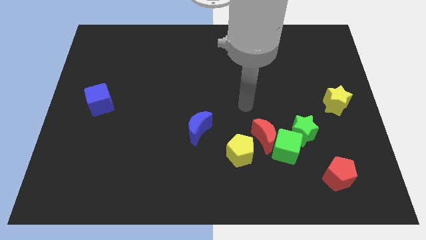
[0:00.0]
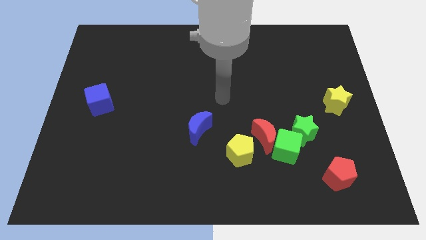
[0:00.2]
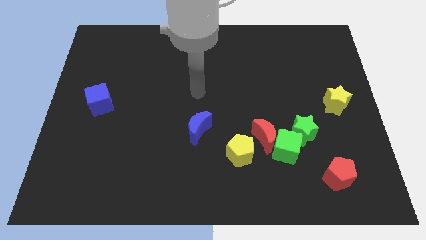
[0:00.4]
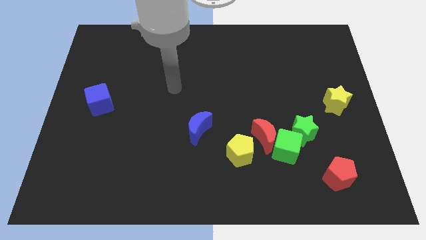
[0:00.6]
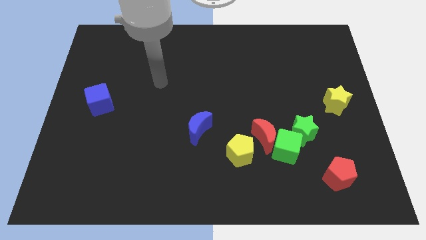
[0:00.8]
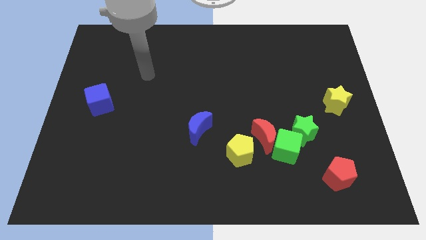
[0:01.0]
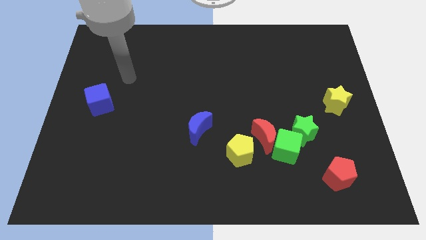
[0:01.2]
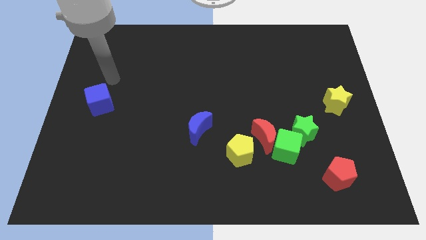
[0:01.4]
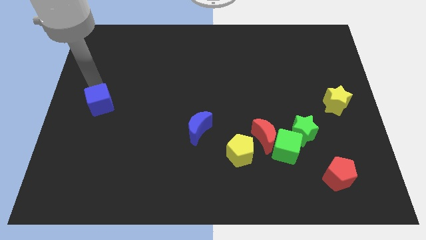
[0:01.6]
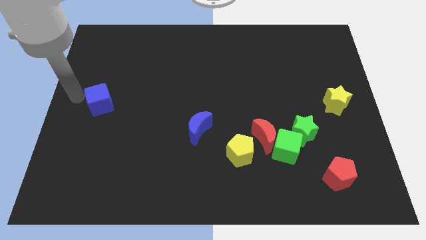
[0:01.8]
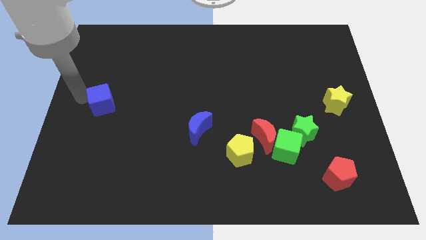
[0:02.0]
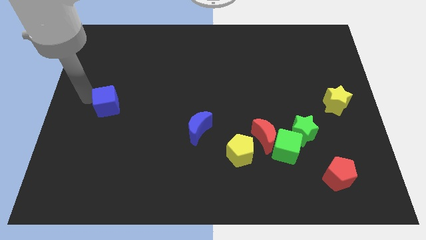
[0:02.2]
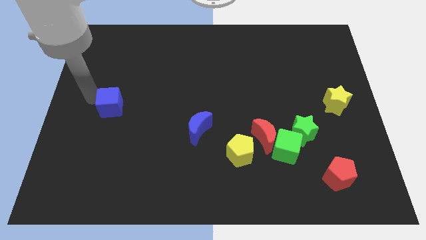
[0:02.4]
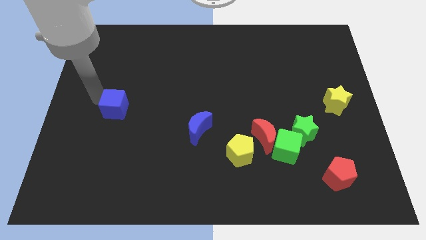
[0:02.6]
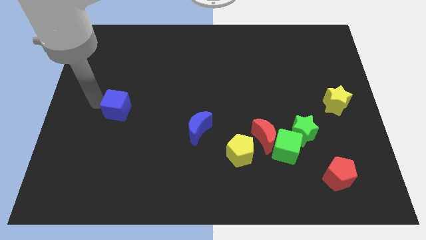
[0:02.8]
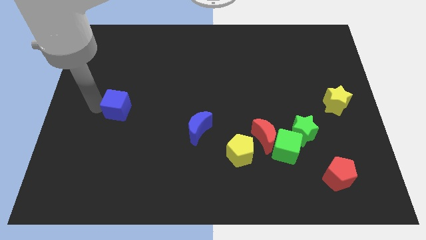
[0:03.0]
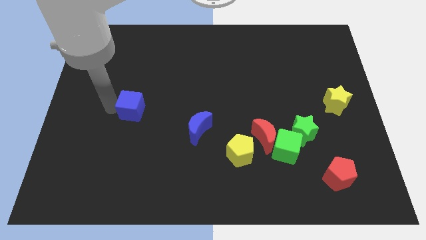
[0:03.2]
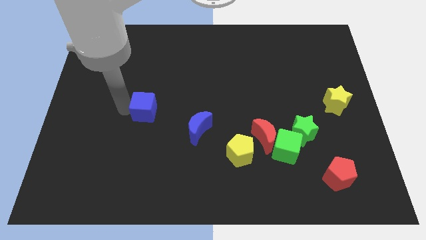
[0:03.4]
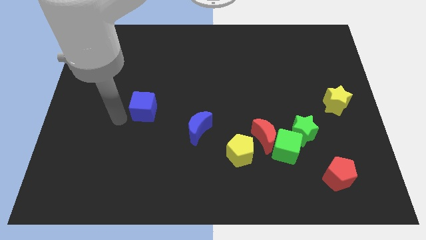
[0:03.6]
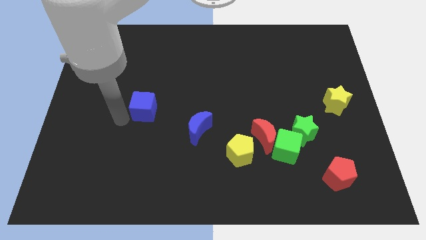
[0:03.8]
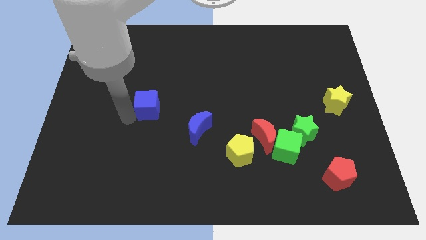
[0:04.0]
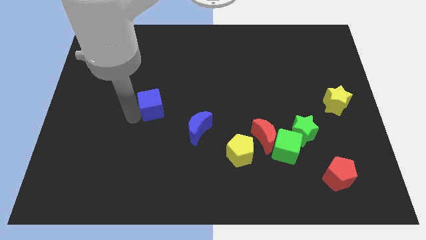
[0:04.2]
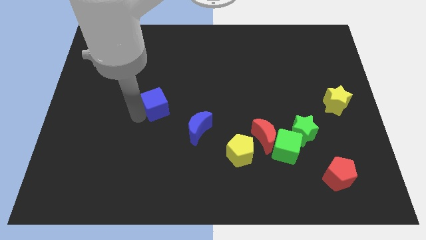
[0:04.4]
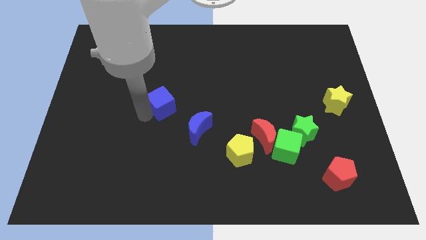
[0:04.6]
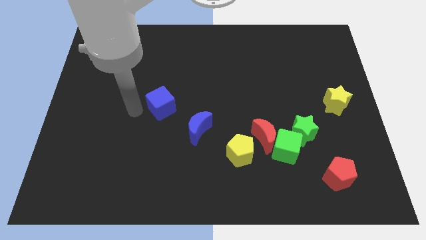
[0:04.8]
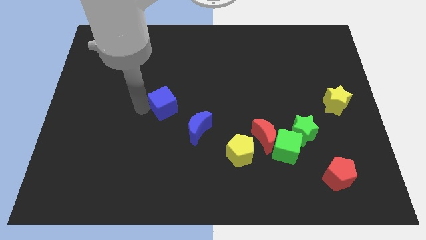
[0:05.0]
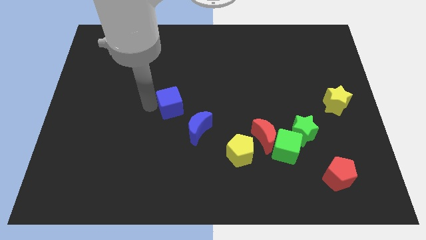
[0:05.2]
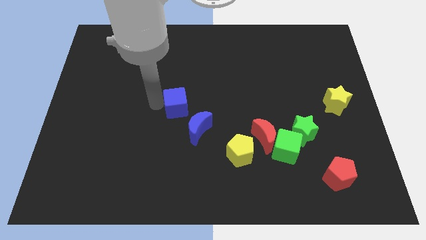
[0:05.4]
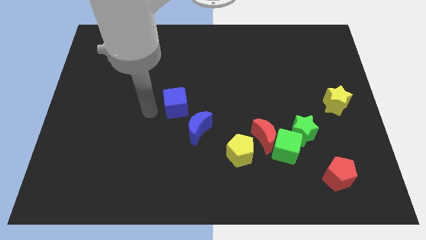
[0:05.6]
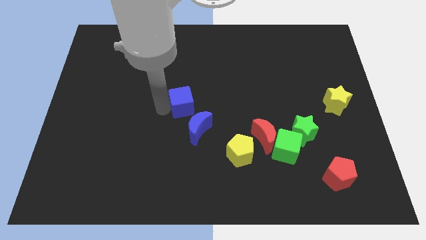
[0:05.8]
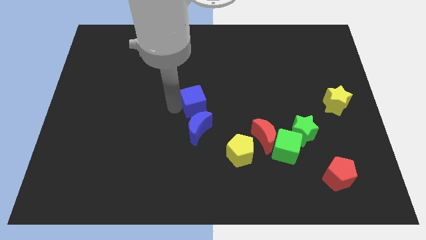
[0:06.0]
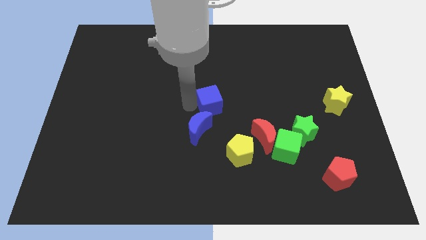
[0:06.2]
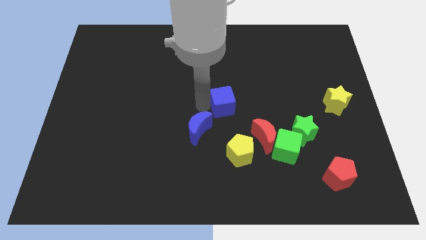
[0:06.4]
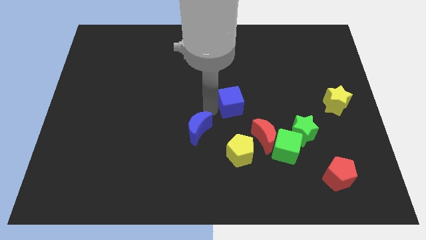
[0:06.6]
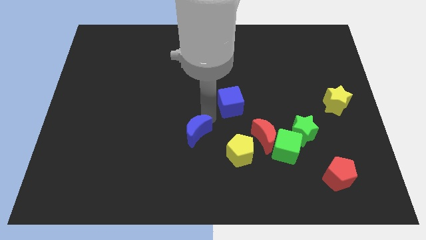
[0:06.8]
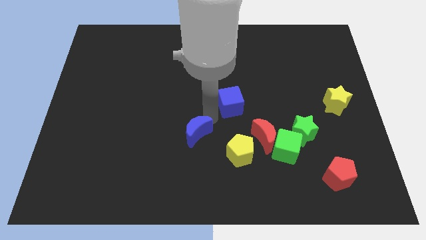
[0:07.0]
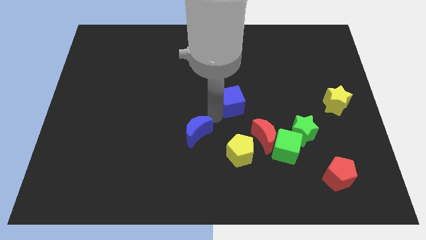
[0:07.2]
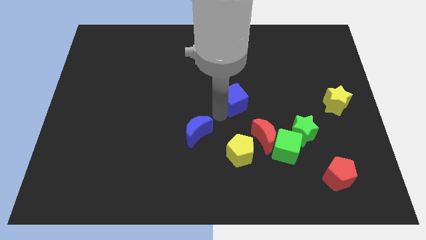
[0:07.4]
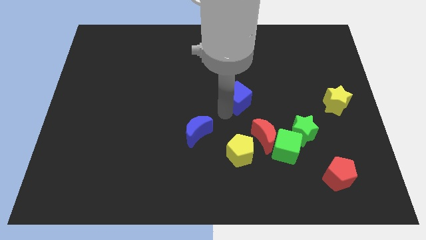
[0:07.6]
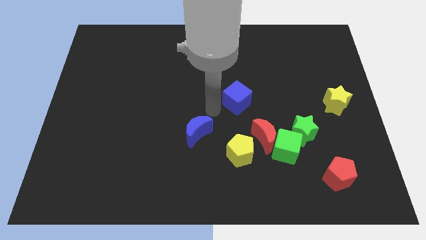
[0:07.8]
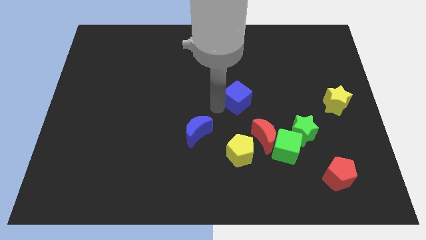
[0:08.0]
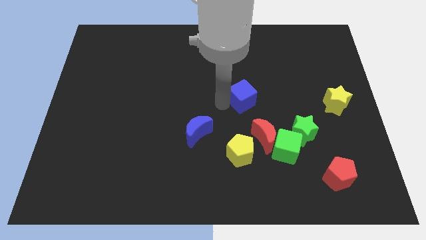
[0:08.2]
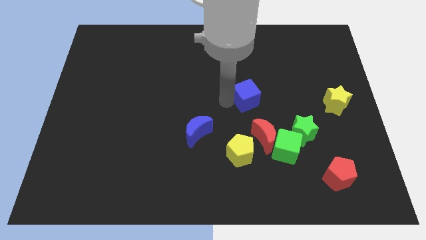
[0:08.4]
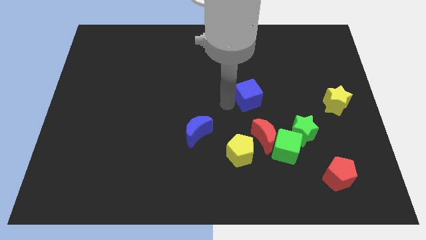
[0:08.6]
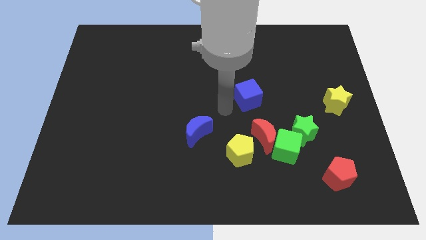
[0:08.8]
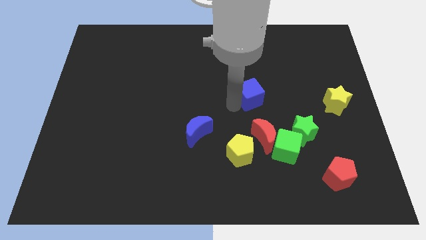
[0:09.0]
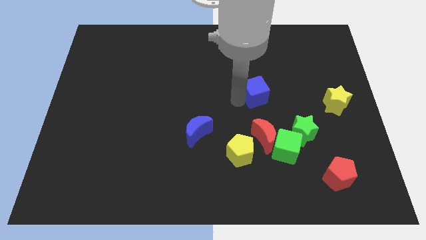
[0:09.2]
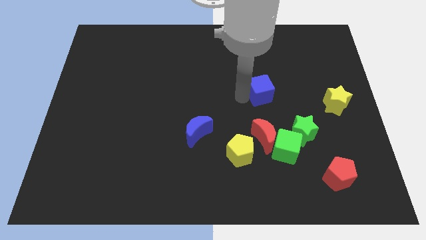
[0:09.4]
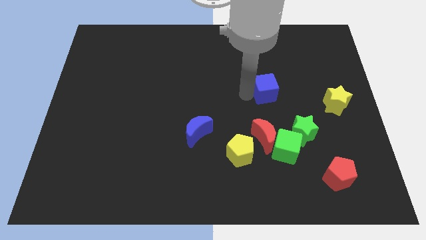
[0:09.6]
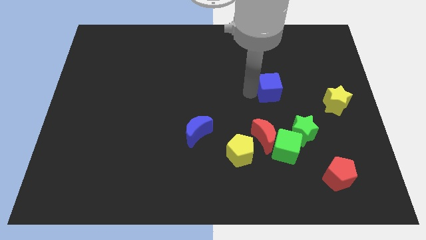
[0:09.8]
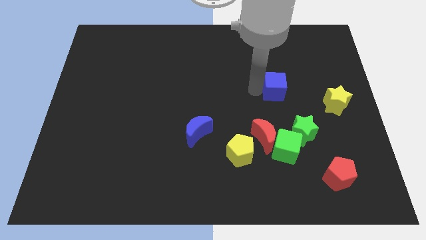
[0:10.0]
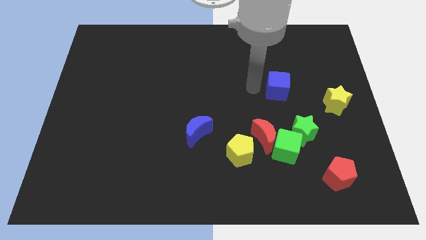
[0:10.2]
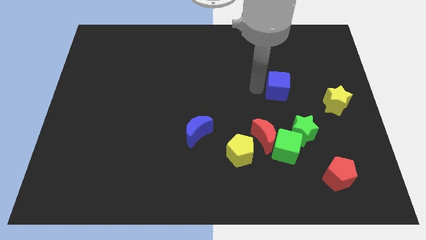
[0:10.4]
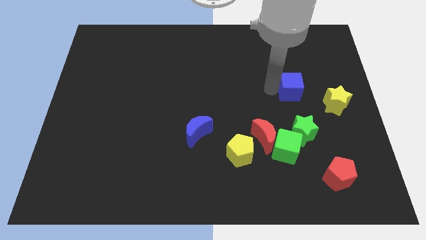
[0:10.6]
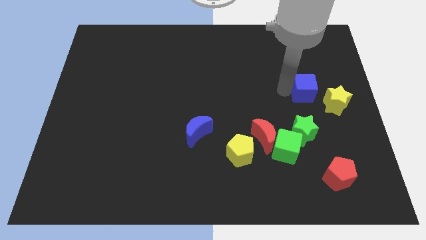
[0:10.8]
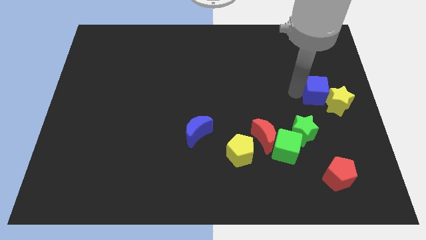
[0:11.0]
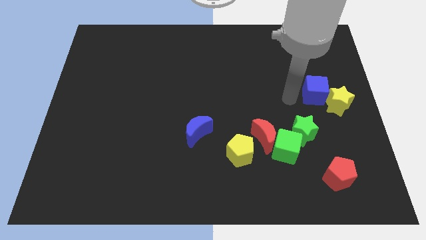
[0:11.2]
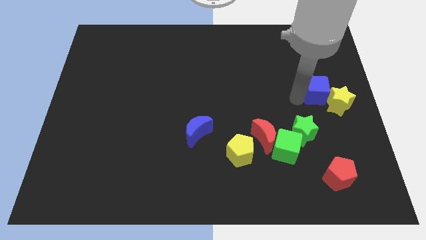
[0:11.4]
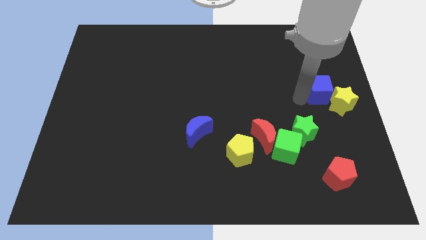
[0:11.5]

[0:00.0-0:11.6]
put the blue cube to the right side

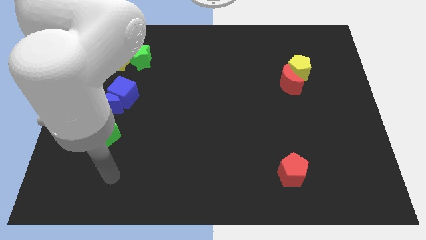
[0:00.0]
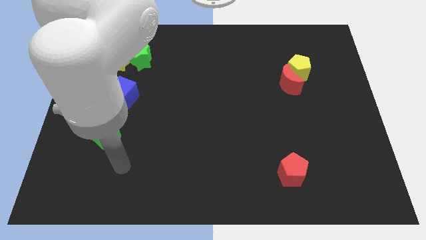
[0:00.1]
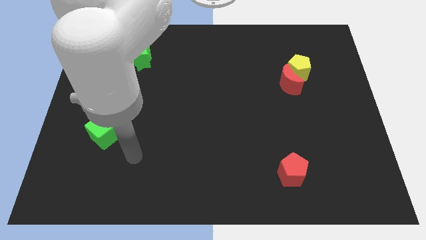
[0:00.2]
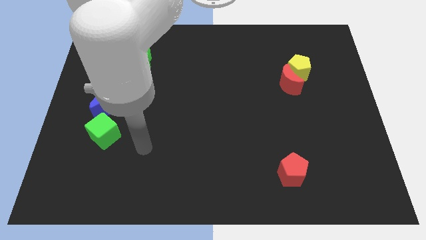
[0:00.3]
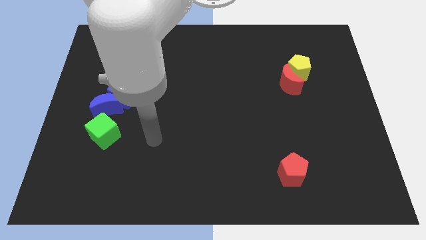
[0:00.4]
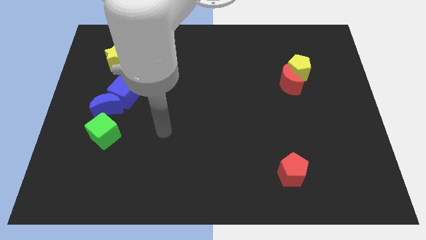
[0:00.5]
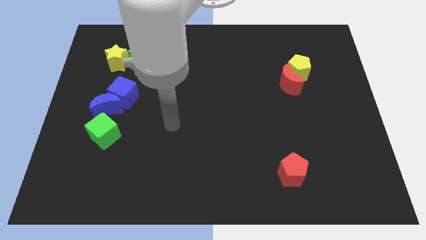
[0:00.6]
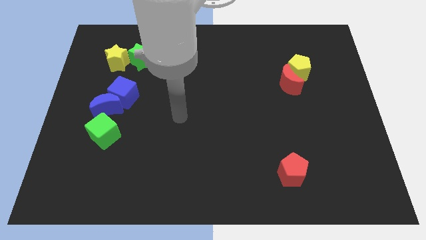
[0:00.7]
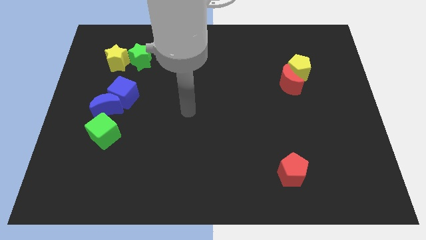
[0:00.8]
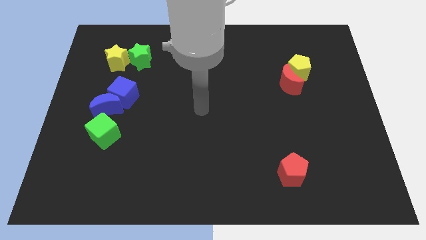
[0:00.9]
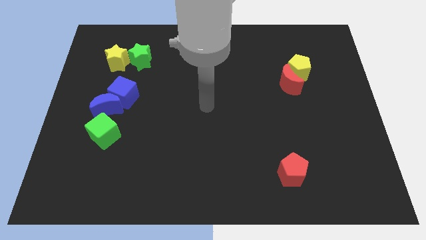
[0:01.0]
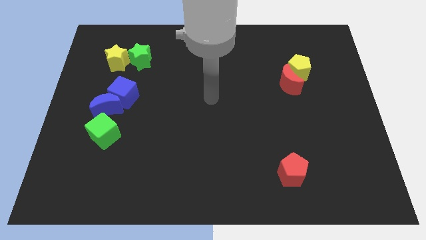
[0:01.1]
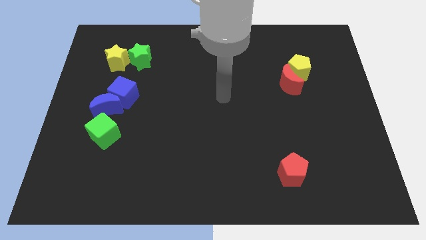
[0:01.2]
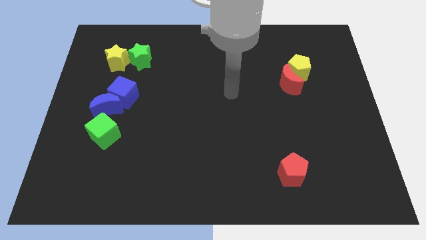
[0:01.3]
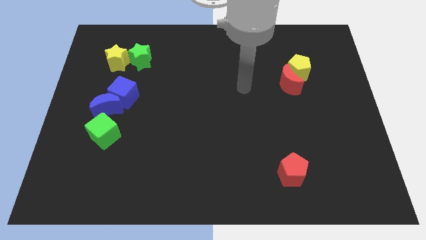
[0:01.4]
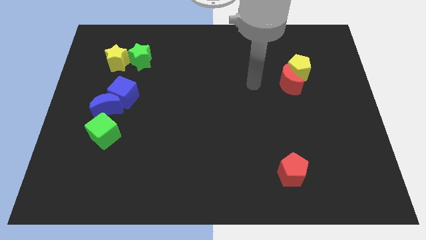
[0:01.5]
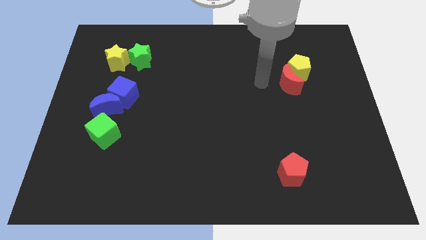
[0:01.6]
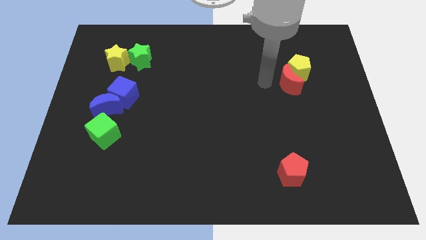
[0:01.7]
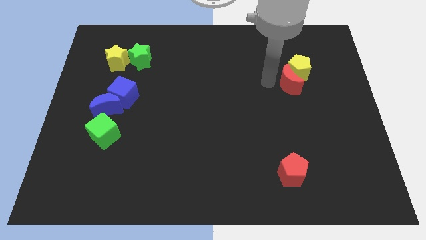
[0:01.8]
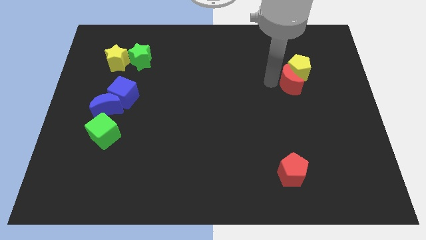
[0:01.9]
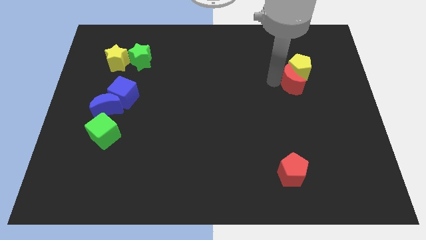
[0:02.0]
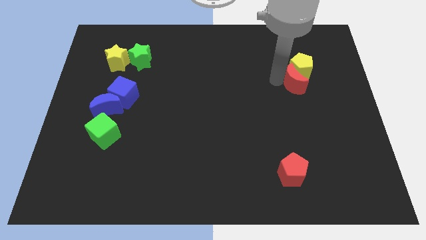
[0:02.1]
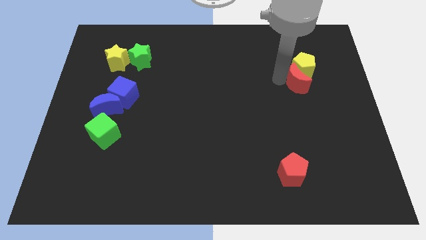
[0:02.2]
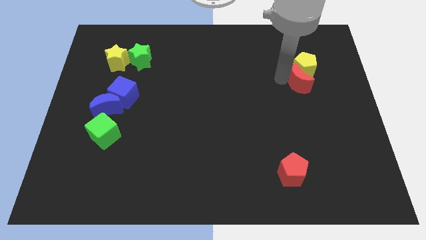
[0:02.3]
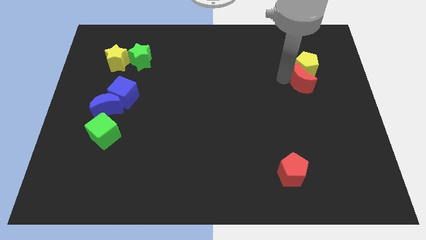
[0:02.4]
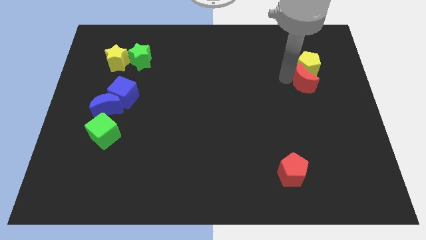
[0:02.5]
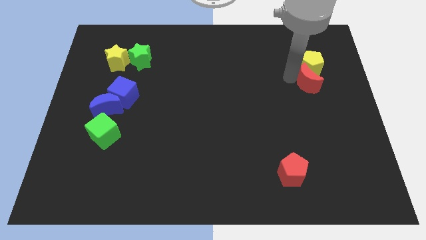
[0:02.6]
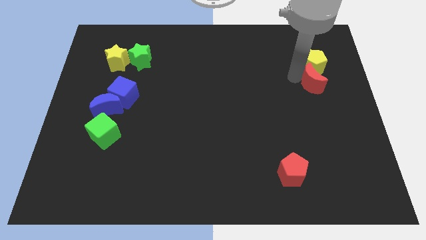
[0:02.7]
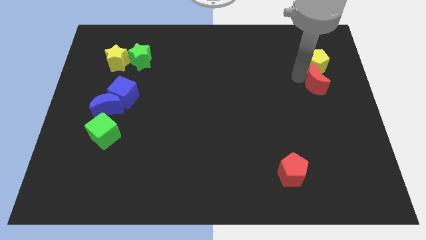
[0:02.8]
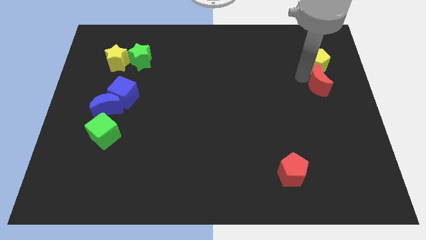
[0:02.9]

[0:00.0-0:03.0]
put the red moon to the center right
